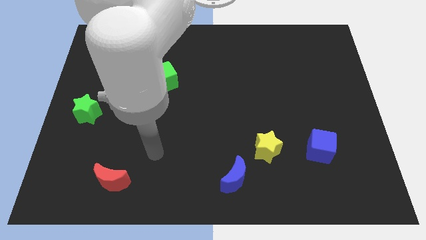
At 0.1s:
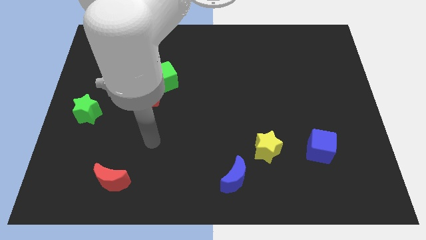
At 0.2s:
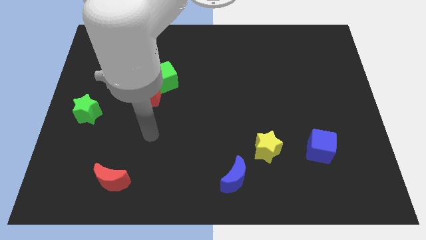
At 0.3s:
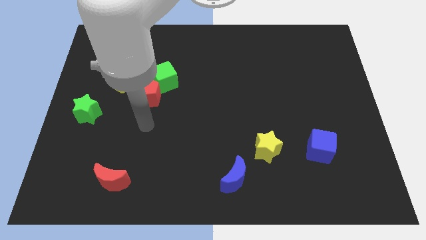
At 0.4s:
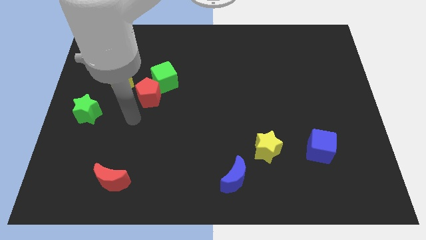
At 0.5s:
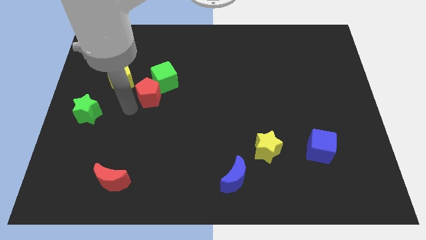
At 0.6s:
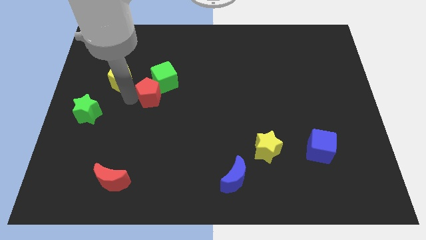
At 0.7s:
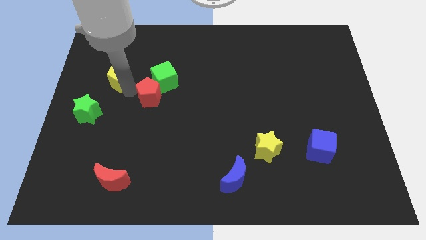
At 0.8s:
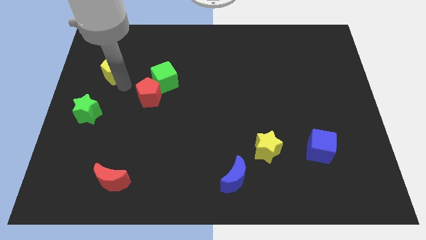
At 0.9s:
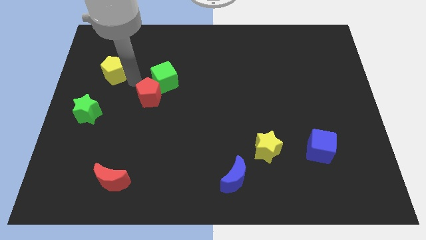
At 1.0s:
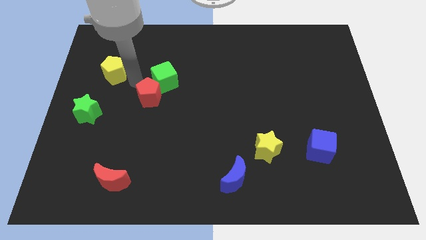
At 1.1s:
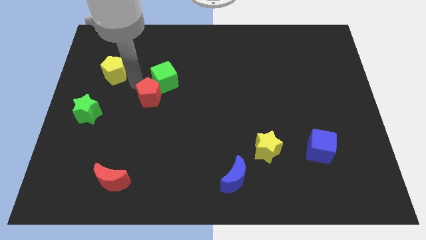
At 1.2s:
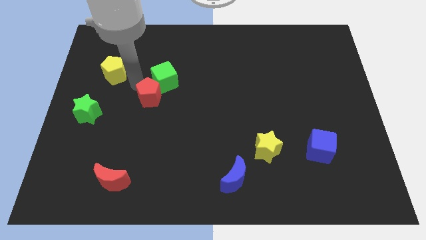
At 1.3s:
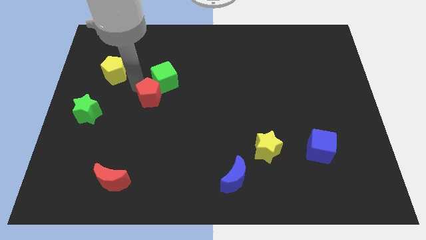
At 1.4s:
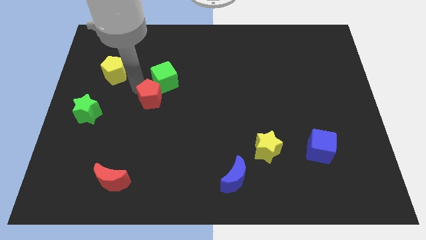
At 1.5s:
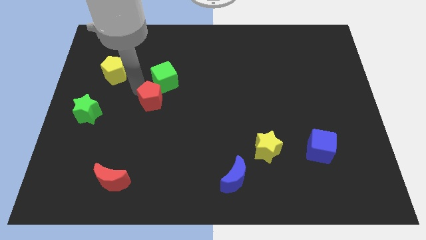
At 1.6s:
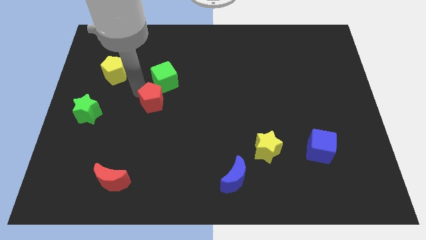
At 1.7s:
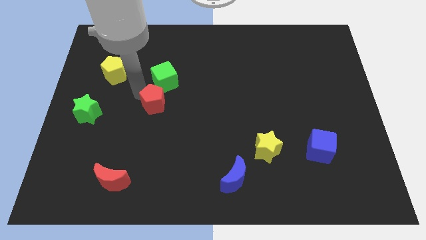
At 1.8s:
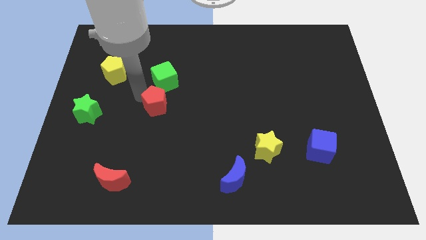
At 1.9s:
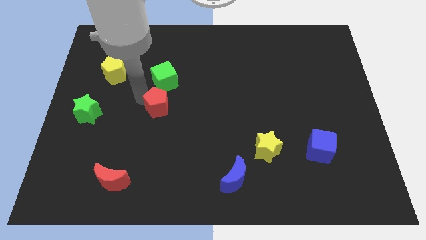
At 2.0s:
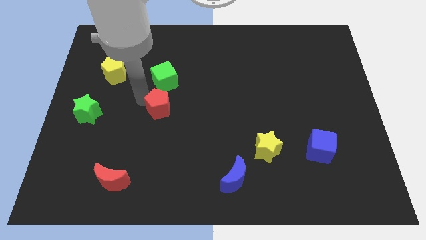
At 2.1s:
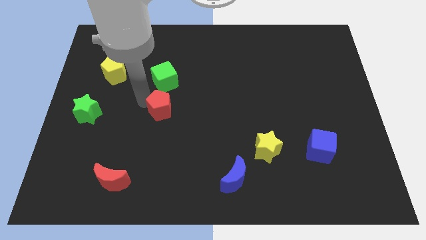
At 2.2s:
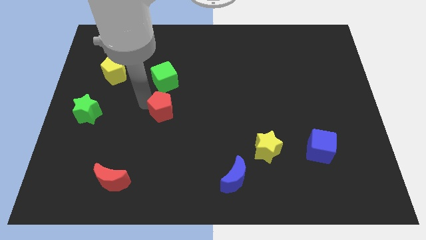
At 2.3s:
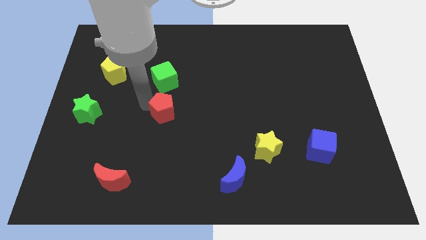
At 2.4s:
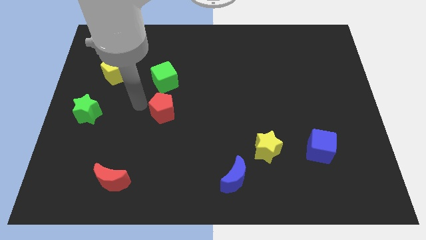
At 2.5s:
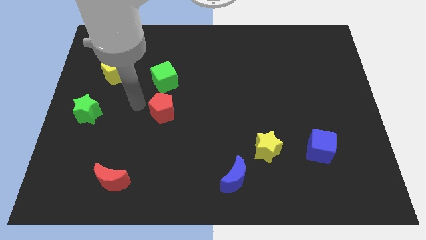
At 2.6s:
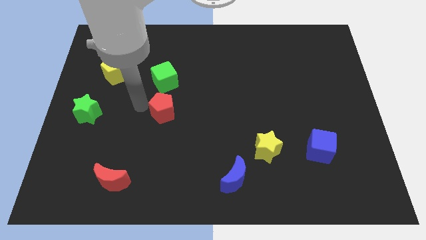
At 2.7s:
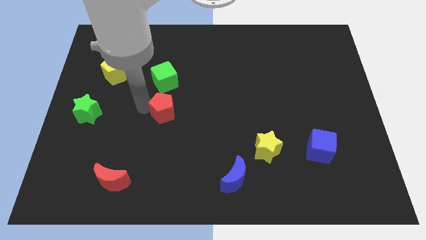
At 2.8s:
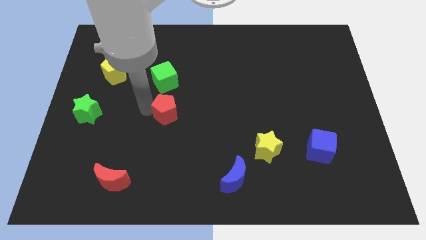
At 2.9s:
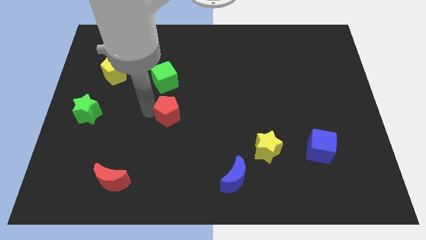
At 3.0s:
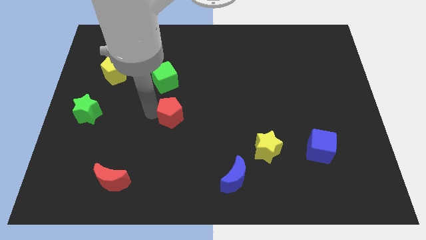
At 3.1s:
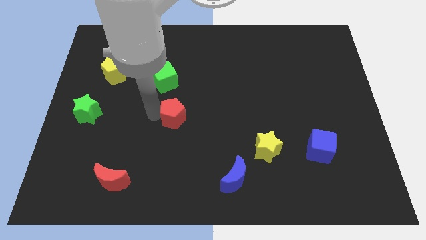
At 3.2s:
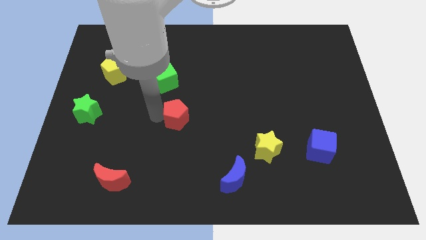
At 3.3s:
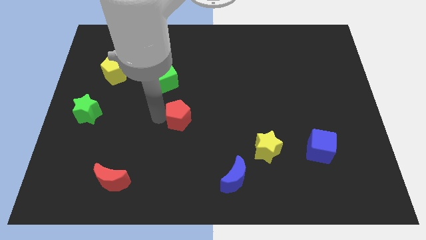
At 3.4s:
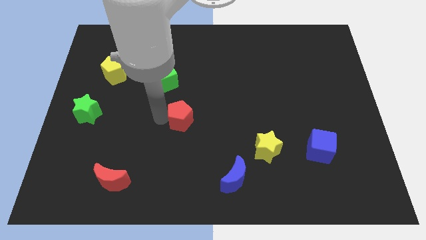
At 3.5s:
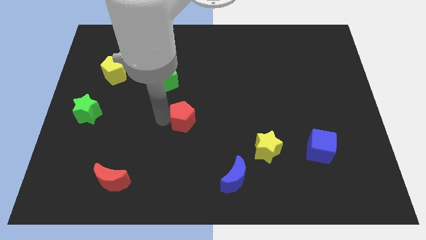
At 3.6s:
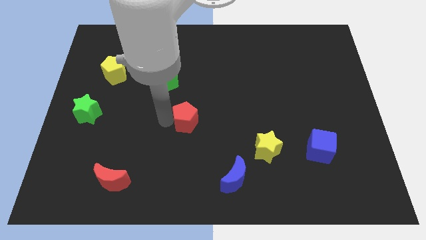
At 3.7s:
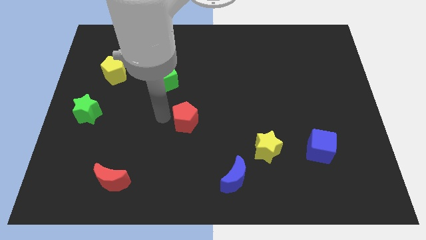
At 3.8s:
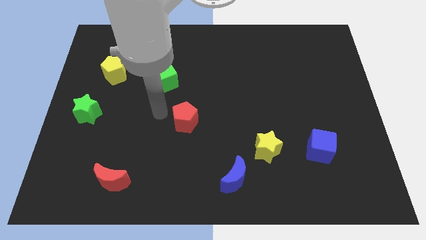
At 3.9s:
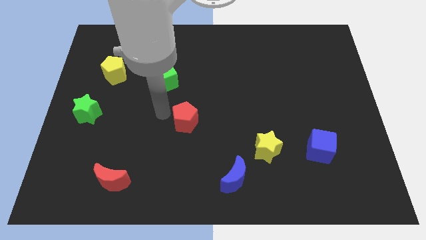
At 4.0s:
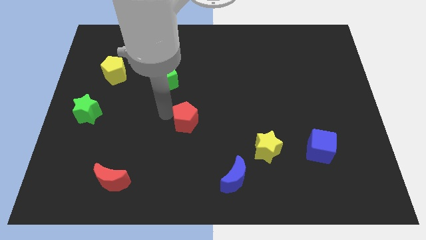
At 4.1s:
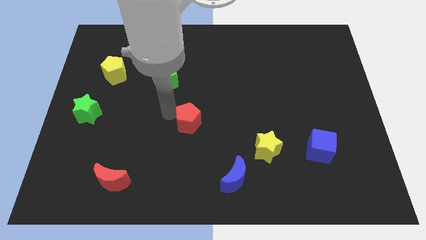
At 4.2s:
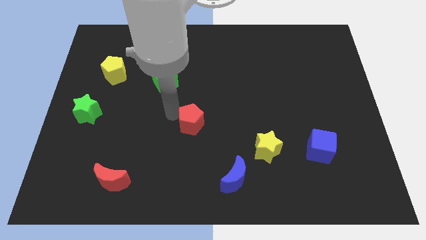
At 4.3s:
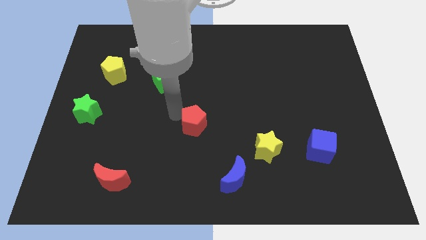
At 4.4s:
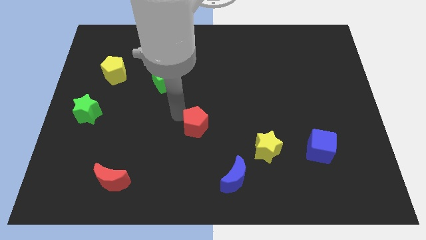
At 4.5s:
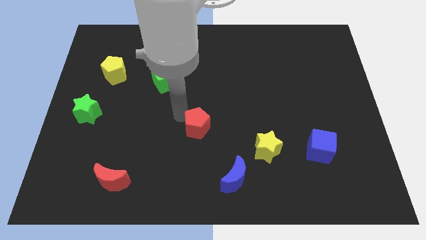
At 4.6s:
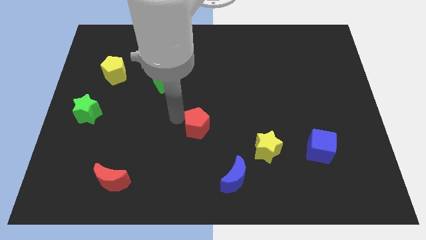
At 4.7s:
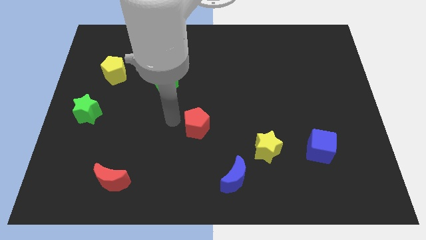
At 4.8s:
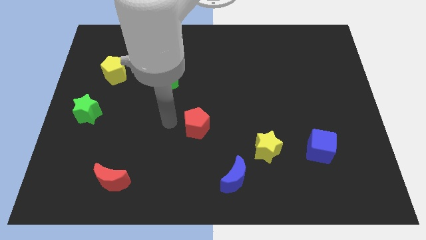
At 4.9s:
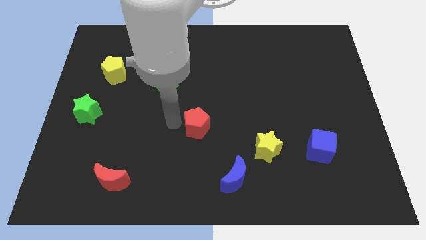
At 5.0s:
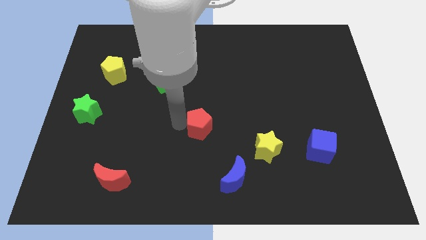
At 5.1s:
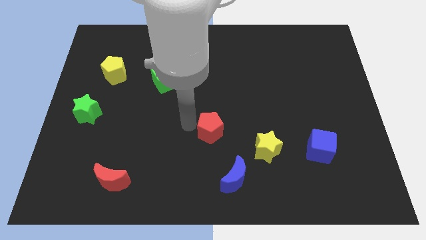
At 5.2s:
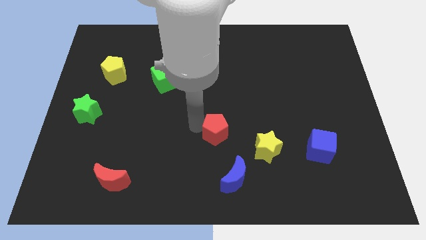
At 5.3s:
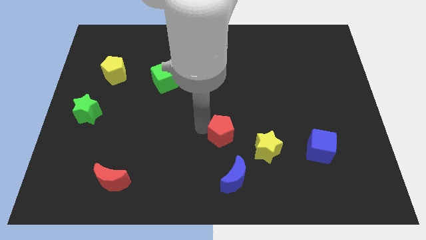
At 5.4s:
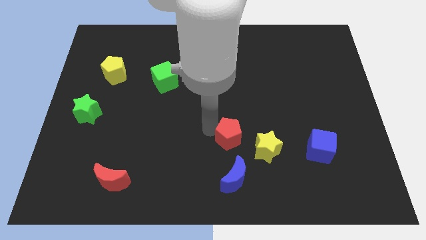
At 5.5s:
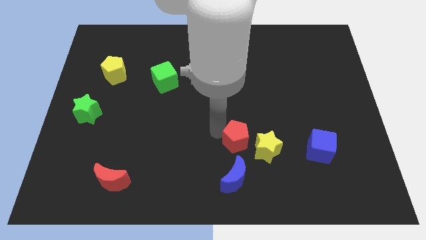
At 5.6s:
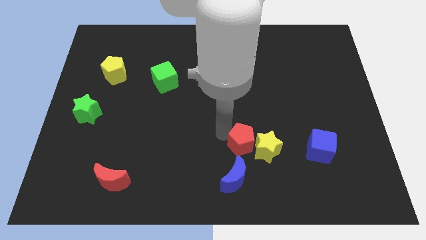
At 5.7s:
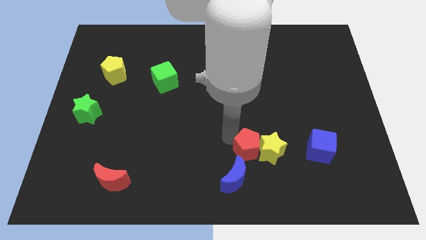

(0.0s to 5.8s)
put the red pentagon to the left side of the blue cube
